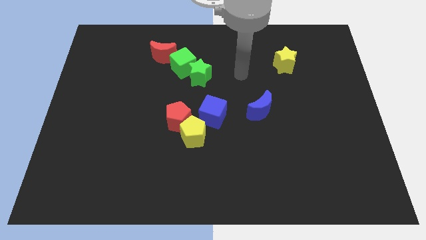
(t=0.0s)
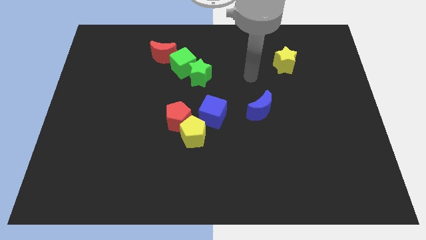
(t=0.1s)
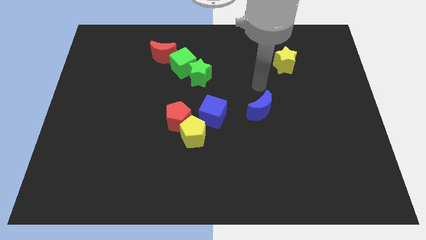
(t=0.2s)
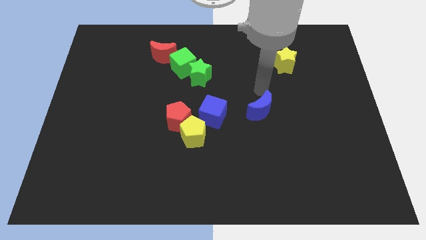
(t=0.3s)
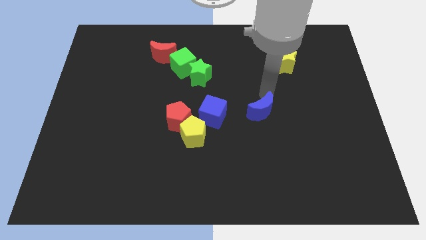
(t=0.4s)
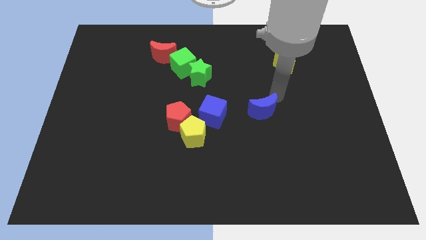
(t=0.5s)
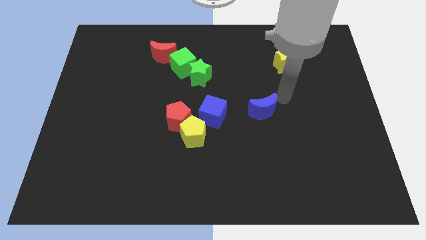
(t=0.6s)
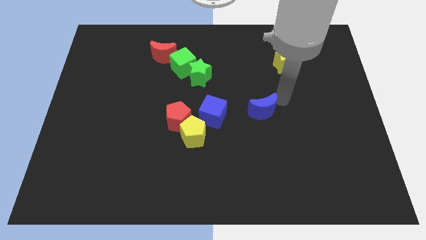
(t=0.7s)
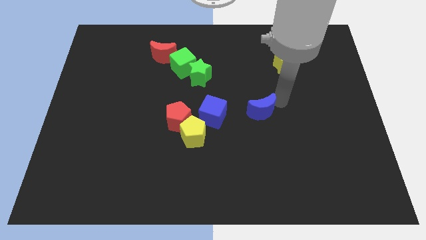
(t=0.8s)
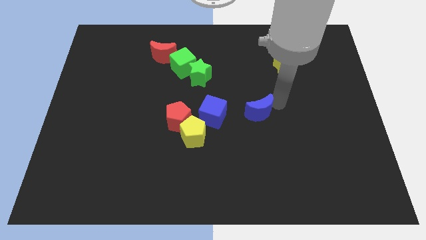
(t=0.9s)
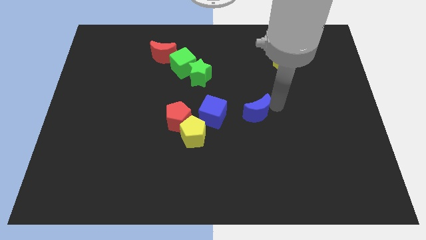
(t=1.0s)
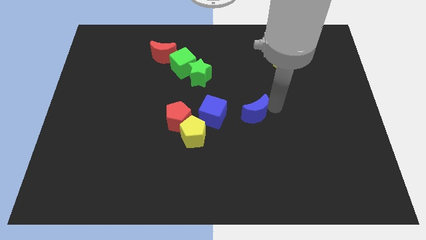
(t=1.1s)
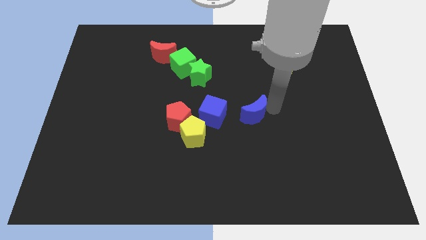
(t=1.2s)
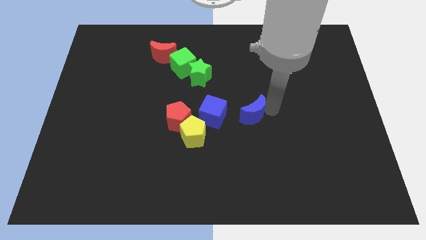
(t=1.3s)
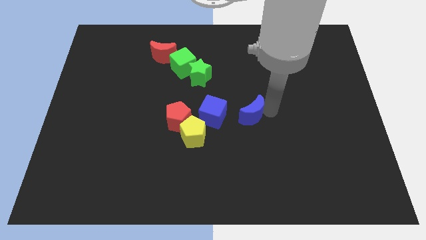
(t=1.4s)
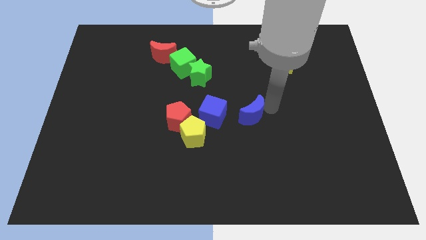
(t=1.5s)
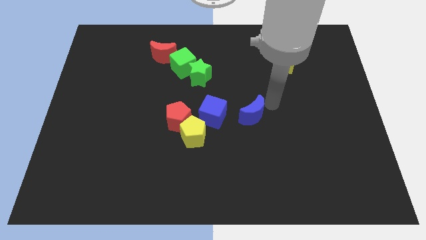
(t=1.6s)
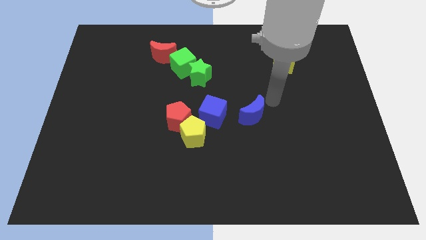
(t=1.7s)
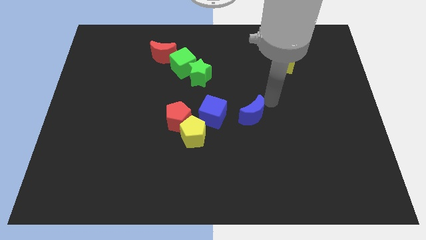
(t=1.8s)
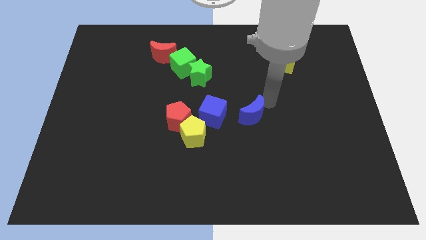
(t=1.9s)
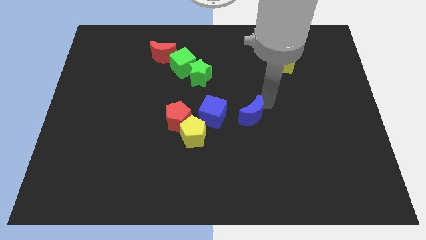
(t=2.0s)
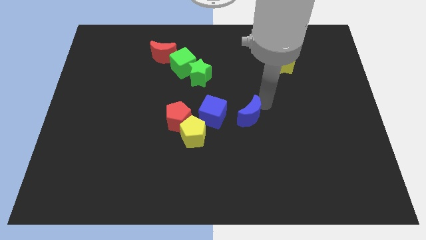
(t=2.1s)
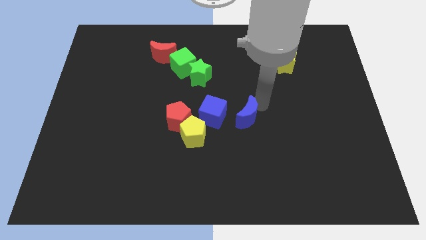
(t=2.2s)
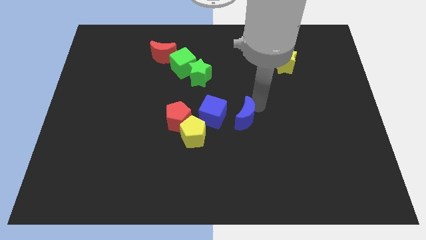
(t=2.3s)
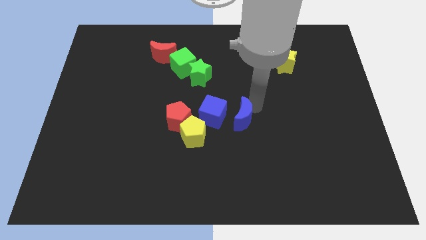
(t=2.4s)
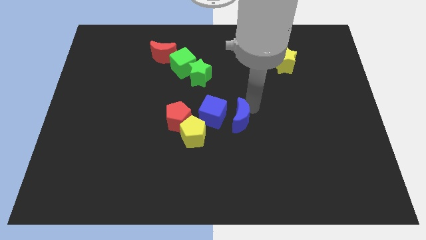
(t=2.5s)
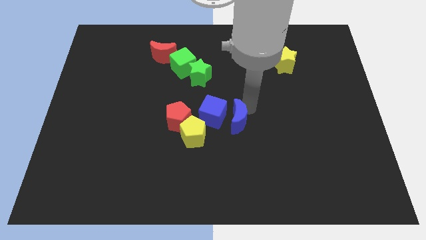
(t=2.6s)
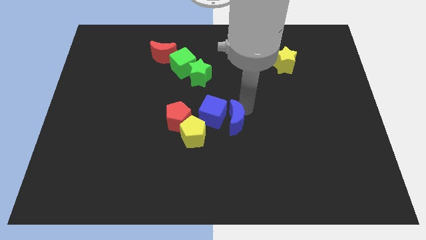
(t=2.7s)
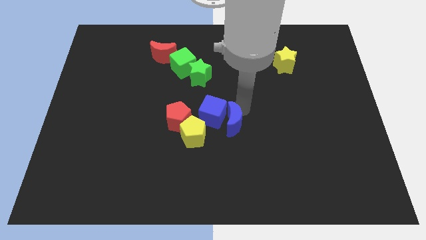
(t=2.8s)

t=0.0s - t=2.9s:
move the blue moon down and left slightly

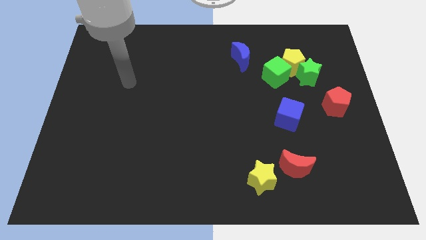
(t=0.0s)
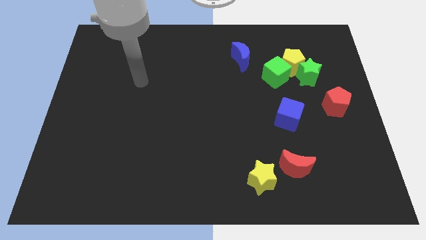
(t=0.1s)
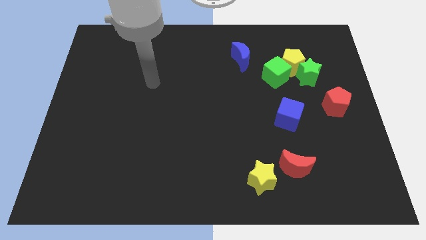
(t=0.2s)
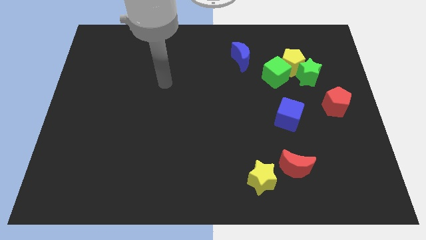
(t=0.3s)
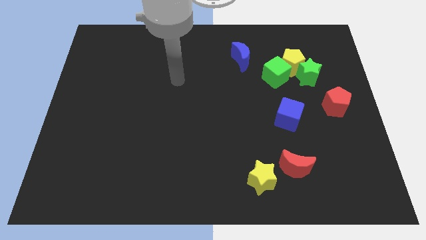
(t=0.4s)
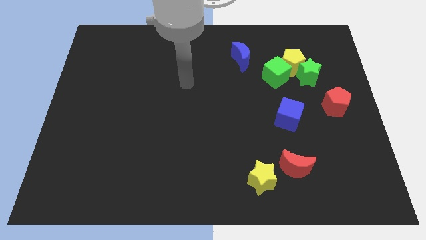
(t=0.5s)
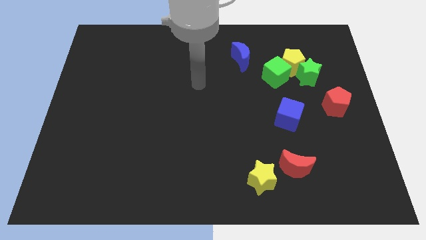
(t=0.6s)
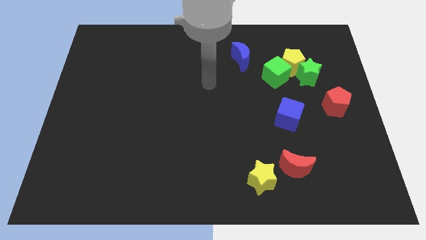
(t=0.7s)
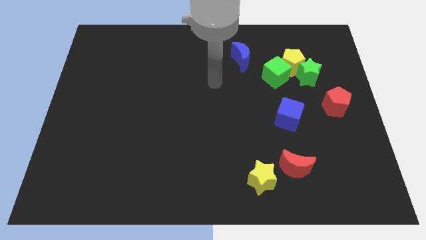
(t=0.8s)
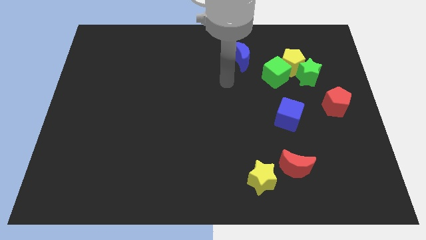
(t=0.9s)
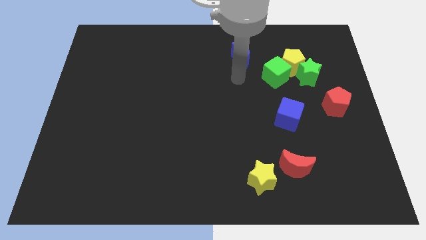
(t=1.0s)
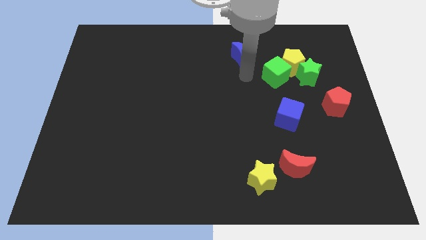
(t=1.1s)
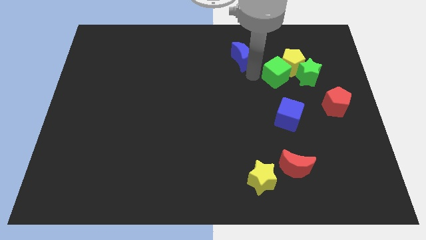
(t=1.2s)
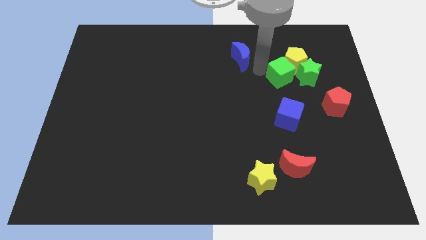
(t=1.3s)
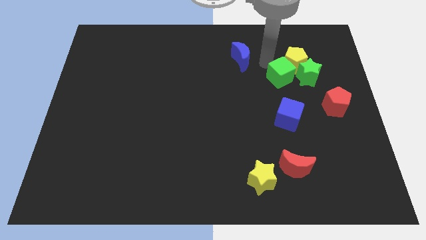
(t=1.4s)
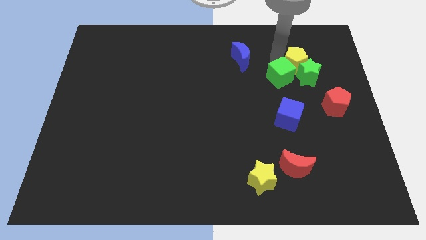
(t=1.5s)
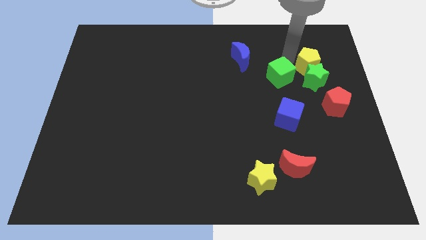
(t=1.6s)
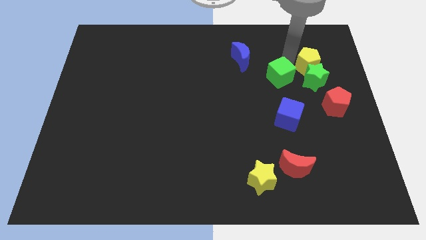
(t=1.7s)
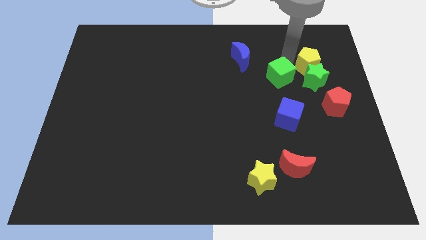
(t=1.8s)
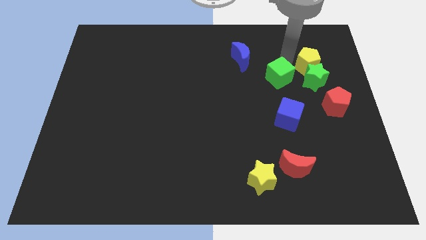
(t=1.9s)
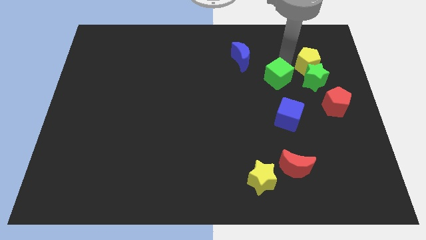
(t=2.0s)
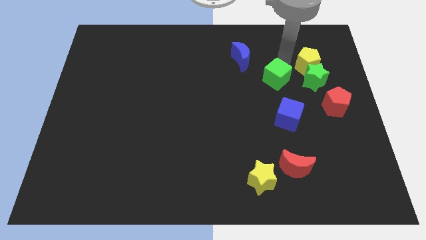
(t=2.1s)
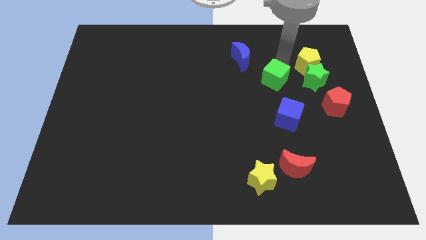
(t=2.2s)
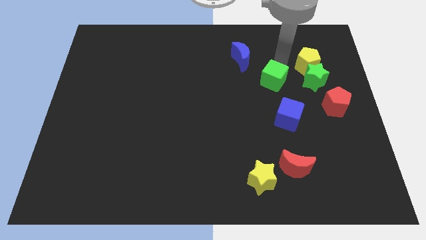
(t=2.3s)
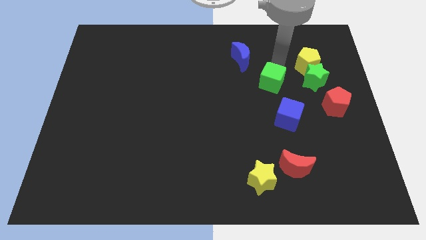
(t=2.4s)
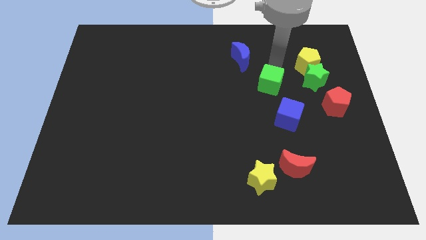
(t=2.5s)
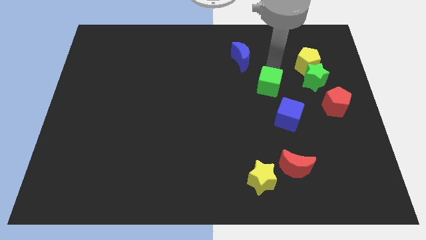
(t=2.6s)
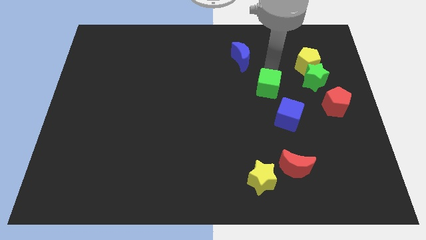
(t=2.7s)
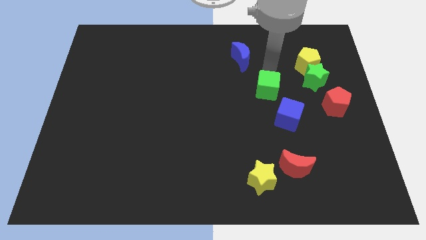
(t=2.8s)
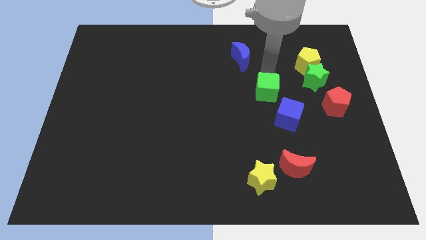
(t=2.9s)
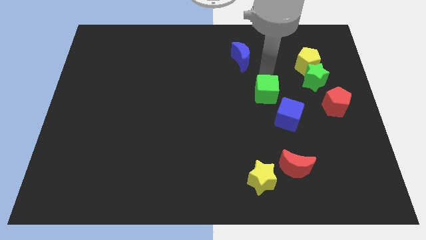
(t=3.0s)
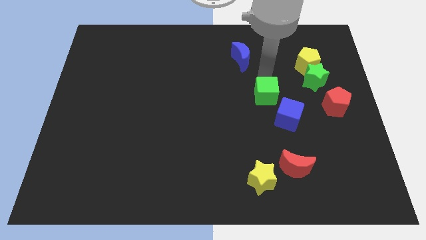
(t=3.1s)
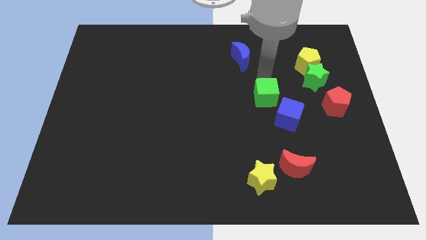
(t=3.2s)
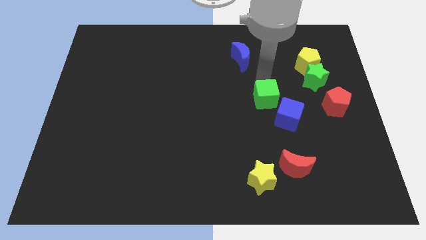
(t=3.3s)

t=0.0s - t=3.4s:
move the green cube down a little

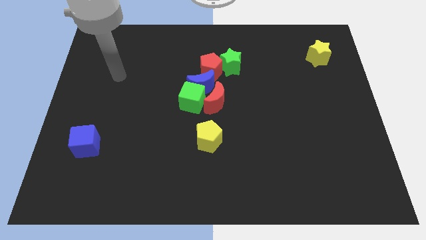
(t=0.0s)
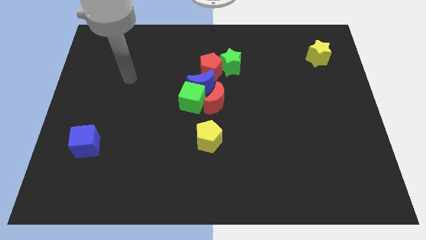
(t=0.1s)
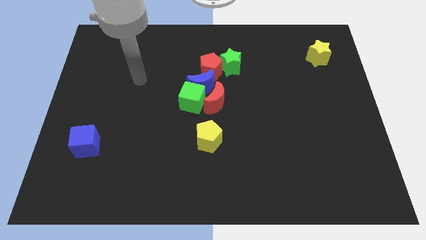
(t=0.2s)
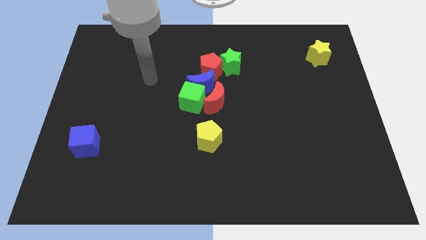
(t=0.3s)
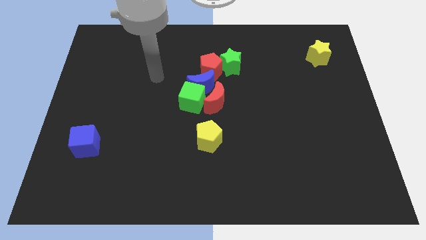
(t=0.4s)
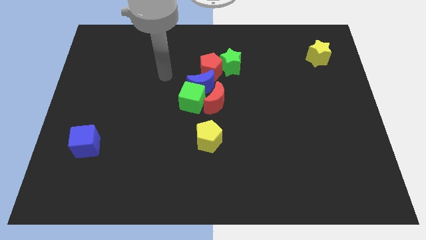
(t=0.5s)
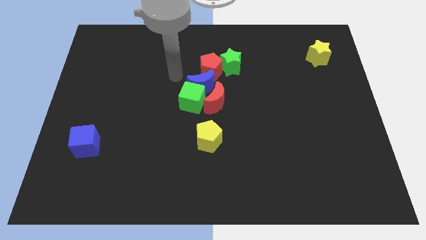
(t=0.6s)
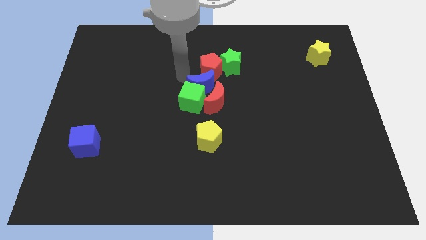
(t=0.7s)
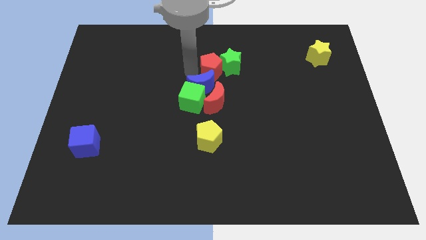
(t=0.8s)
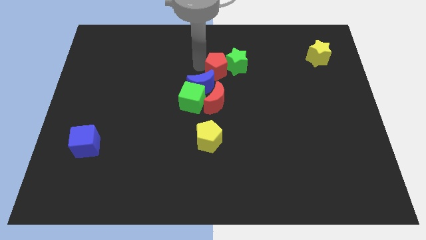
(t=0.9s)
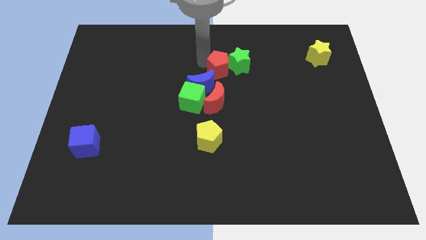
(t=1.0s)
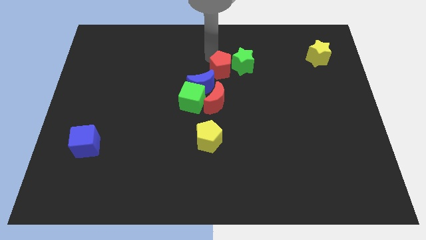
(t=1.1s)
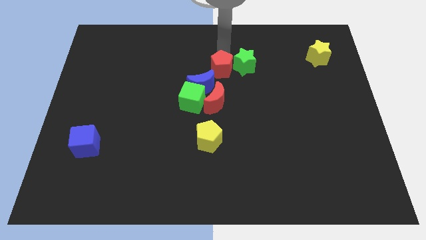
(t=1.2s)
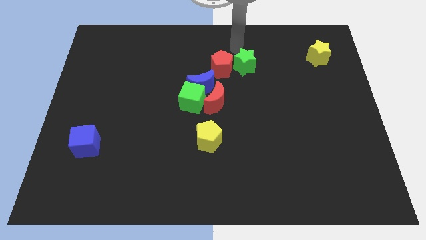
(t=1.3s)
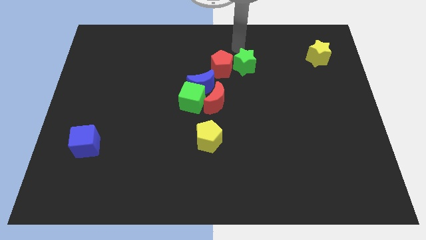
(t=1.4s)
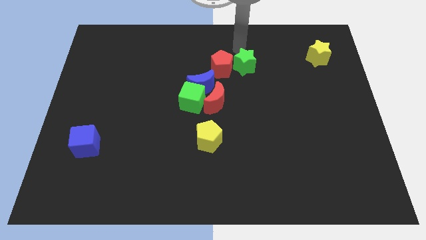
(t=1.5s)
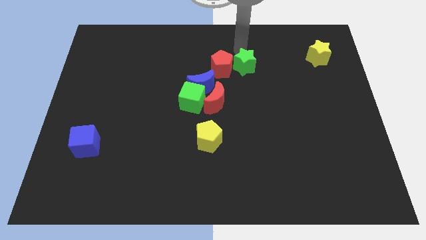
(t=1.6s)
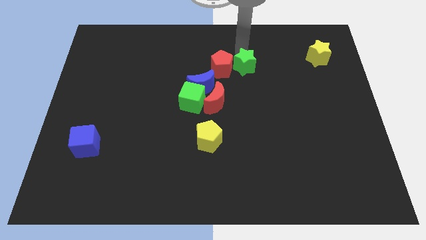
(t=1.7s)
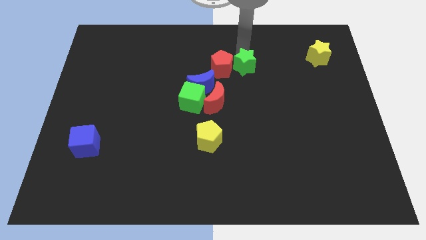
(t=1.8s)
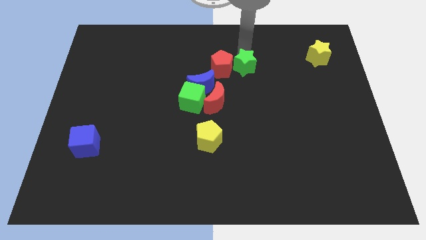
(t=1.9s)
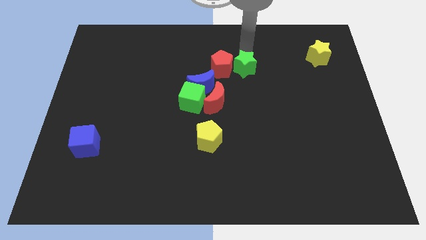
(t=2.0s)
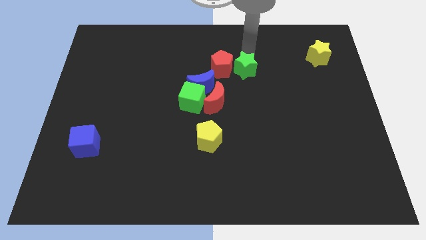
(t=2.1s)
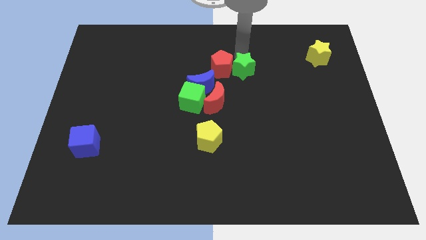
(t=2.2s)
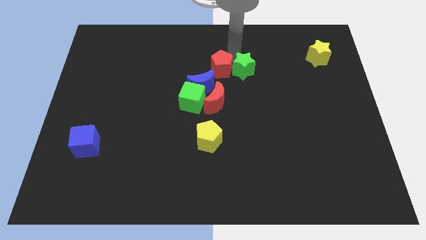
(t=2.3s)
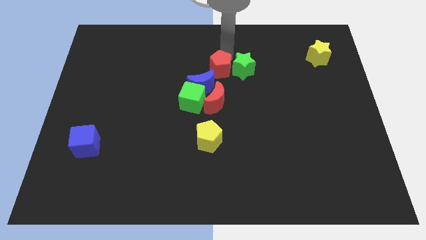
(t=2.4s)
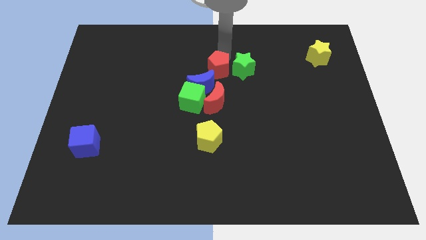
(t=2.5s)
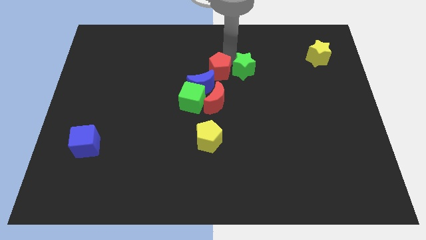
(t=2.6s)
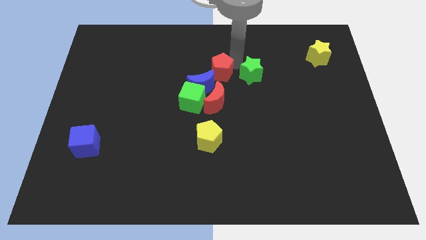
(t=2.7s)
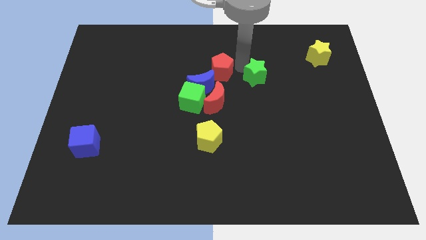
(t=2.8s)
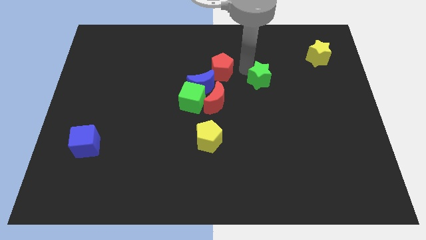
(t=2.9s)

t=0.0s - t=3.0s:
slightly slide the green star diagonally downwards and to the right
